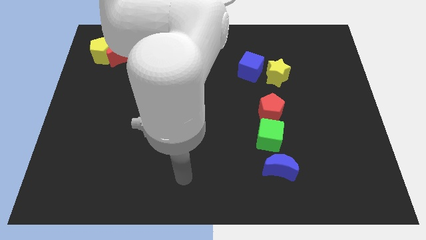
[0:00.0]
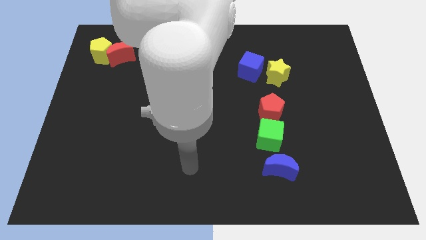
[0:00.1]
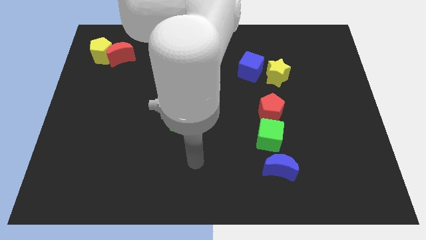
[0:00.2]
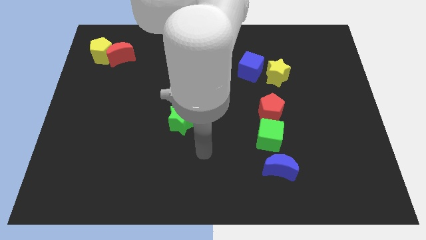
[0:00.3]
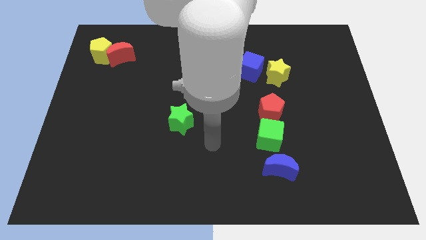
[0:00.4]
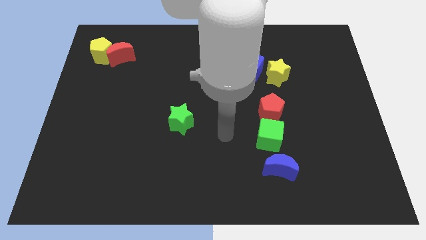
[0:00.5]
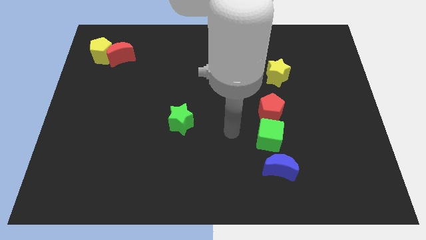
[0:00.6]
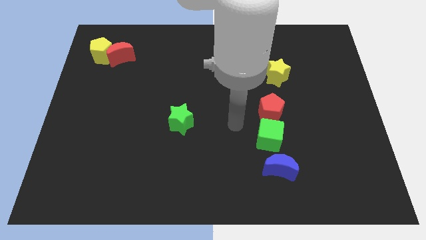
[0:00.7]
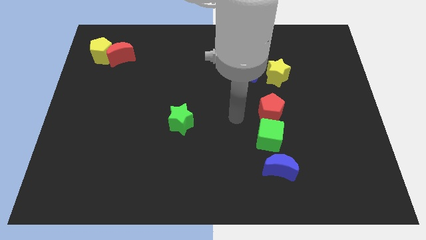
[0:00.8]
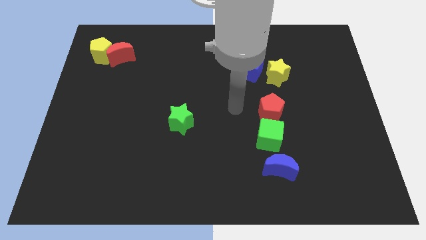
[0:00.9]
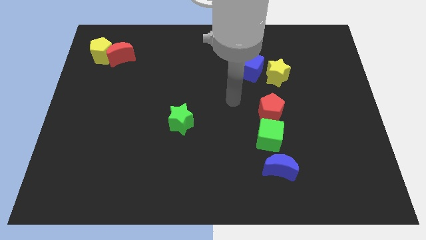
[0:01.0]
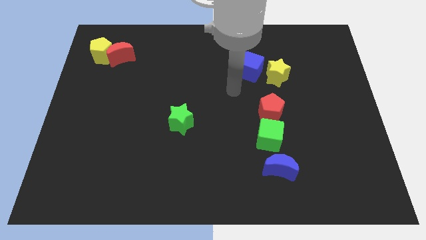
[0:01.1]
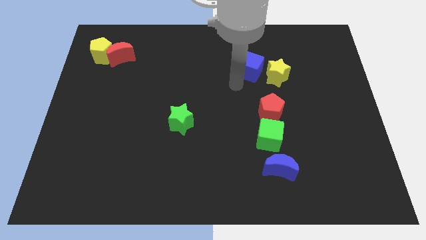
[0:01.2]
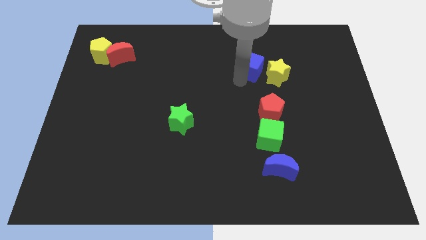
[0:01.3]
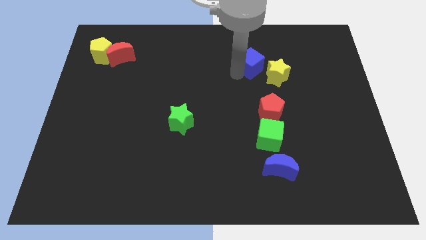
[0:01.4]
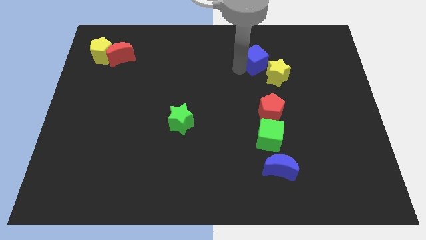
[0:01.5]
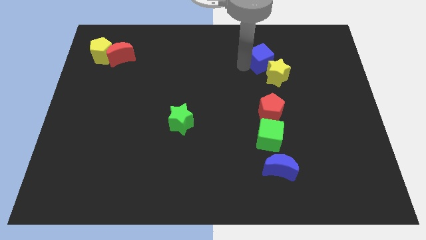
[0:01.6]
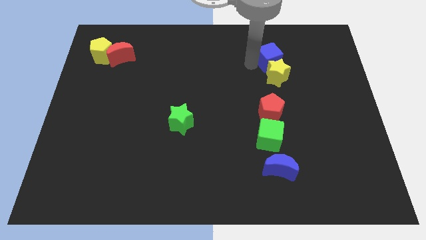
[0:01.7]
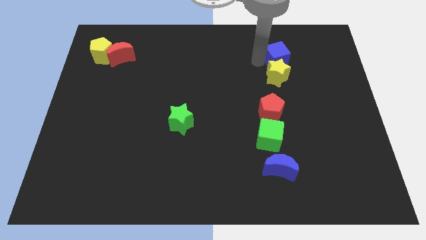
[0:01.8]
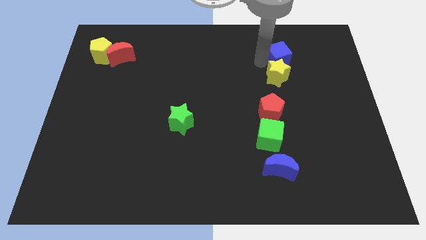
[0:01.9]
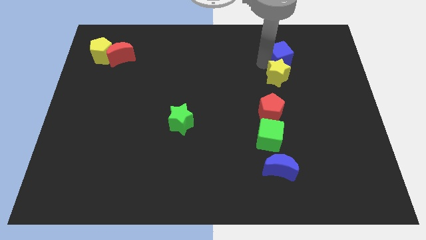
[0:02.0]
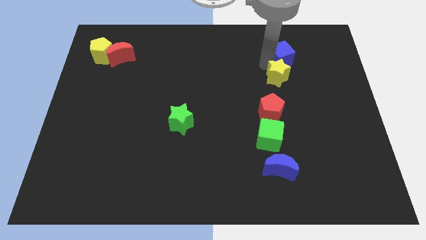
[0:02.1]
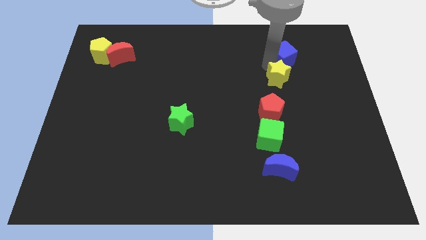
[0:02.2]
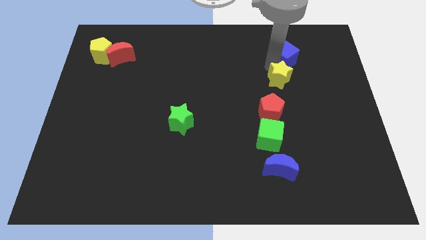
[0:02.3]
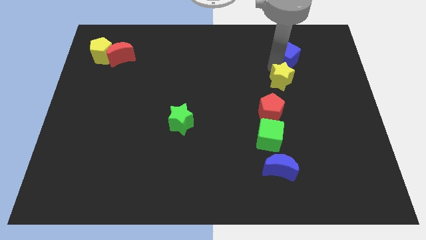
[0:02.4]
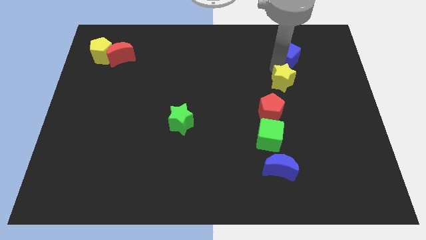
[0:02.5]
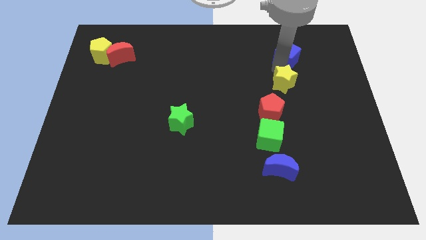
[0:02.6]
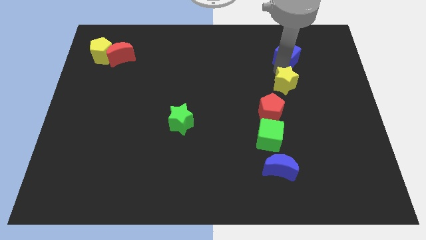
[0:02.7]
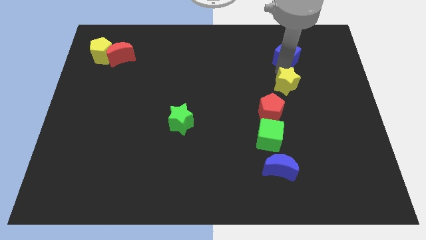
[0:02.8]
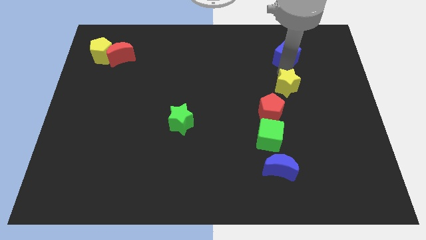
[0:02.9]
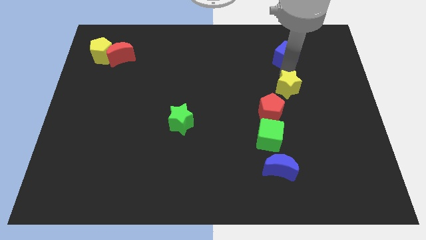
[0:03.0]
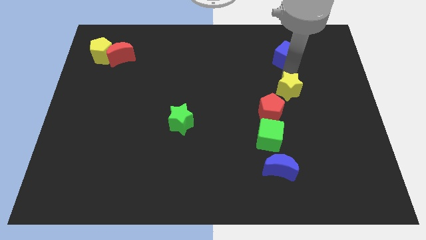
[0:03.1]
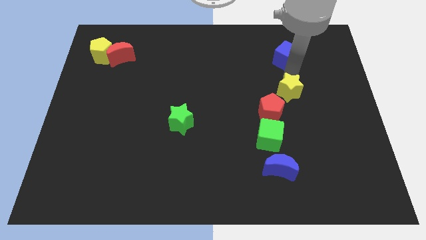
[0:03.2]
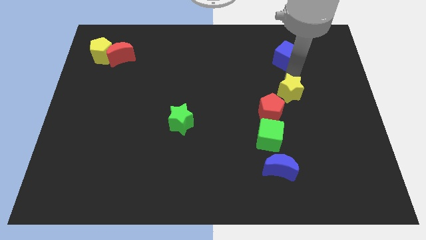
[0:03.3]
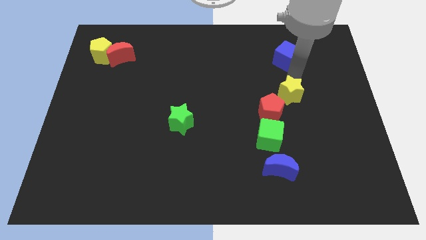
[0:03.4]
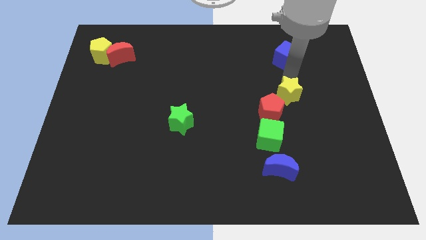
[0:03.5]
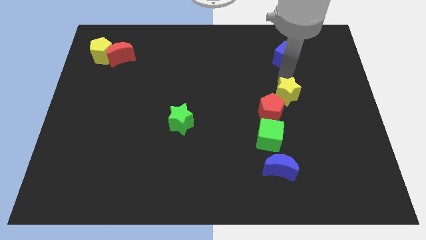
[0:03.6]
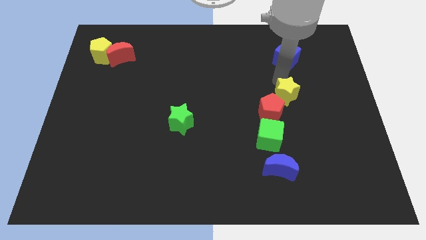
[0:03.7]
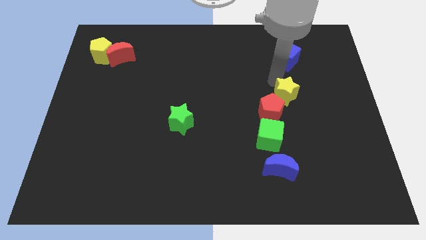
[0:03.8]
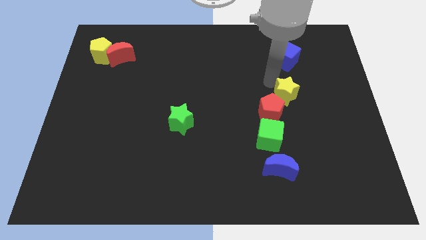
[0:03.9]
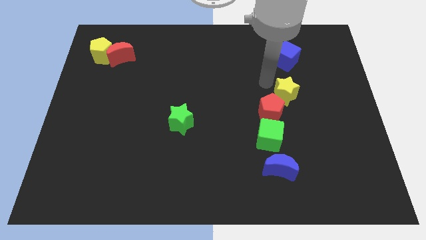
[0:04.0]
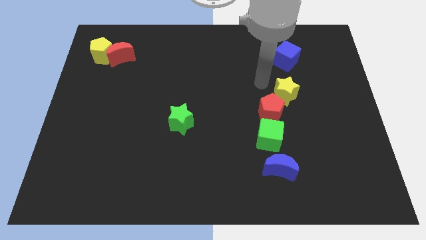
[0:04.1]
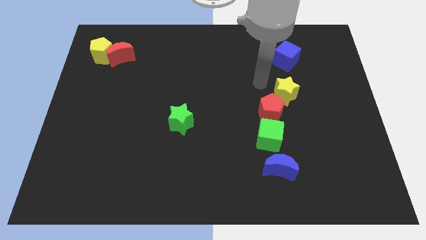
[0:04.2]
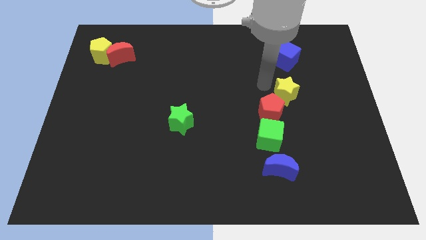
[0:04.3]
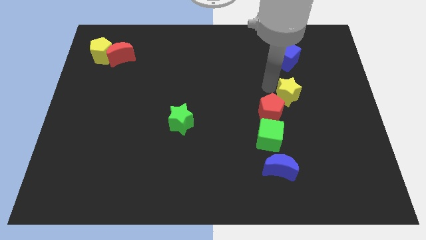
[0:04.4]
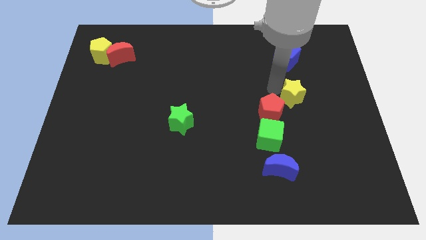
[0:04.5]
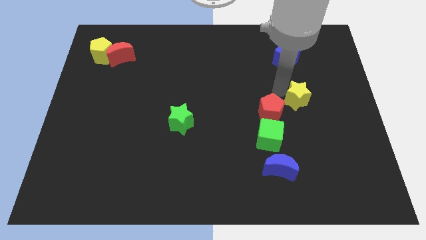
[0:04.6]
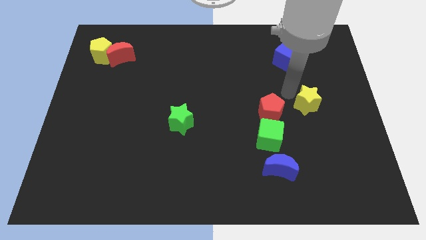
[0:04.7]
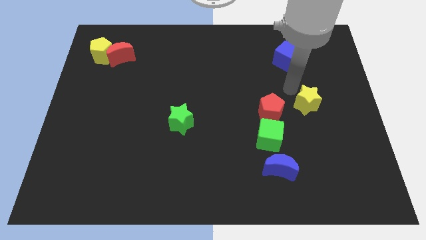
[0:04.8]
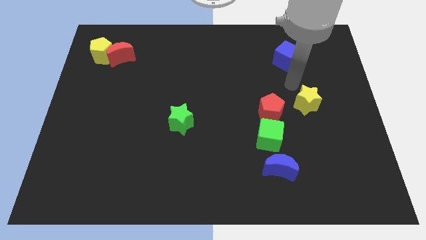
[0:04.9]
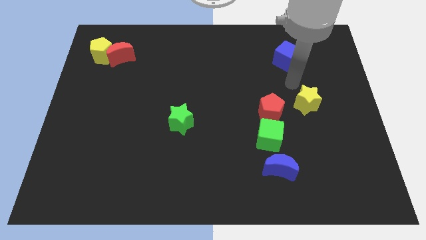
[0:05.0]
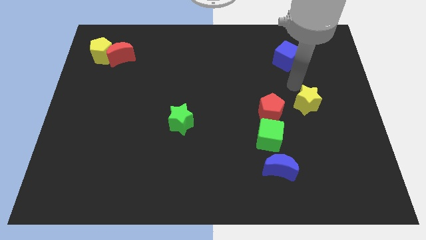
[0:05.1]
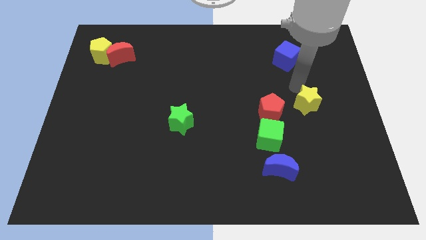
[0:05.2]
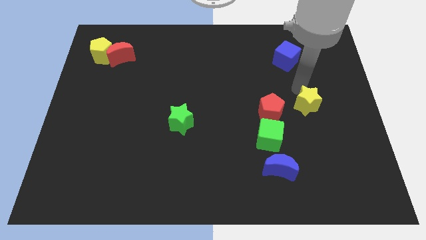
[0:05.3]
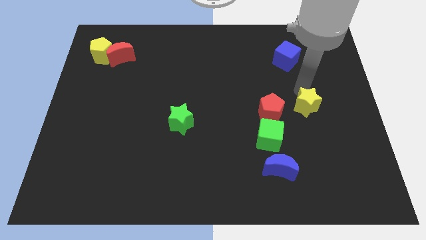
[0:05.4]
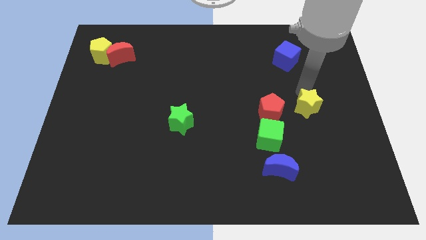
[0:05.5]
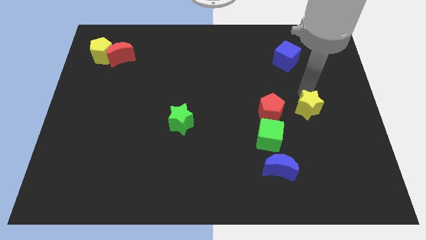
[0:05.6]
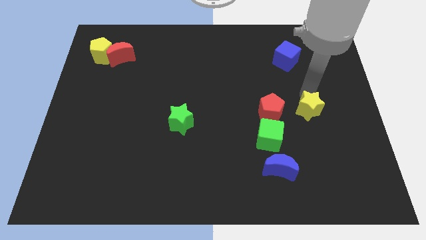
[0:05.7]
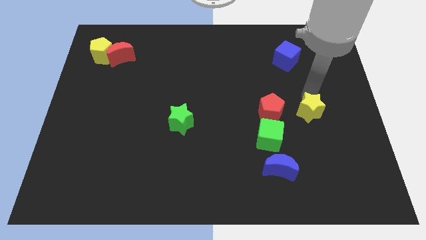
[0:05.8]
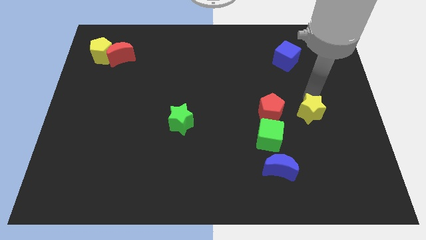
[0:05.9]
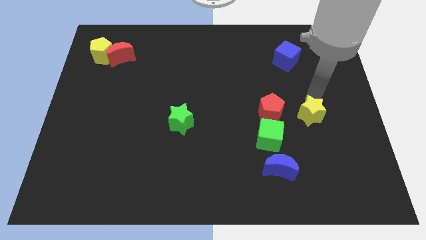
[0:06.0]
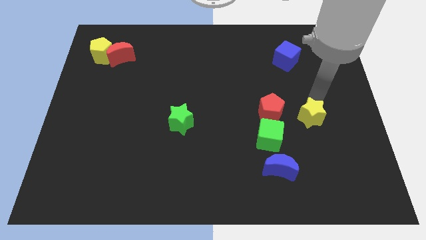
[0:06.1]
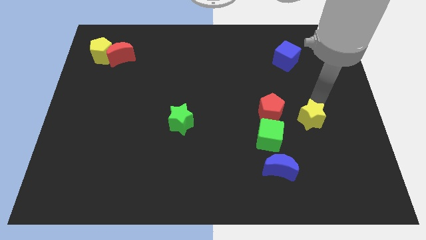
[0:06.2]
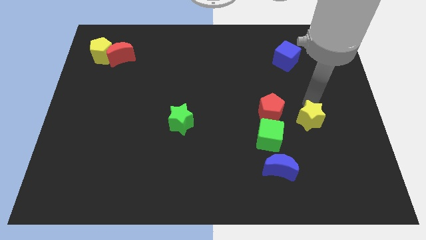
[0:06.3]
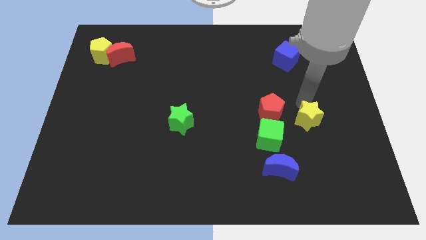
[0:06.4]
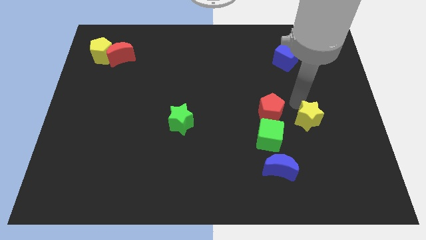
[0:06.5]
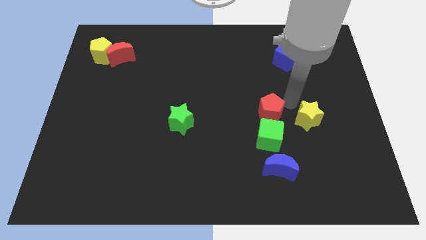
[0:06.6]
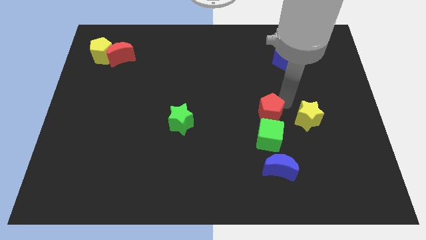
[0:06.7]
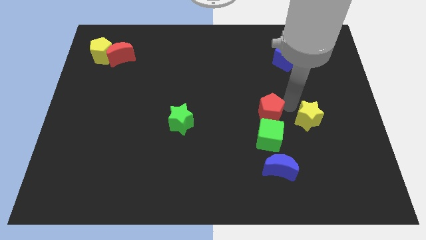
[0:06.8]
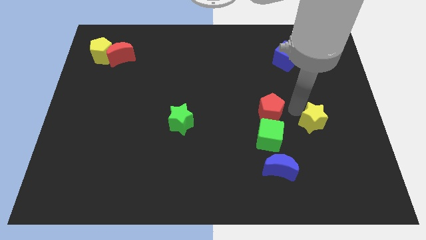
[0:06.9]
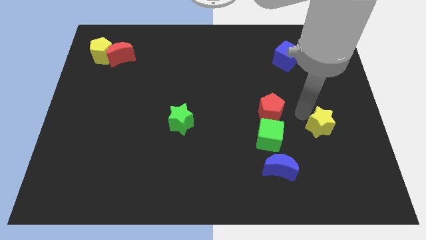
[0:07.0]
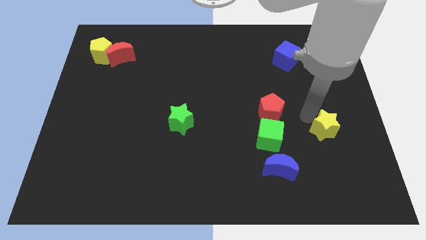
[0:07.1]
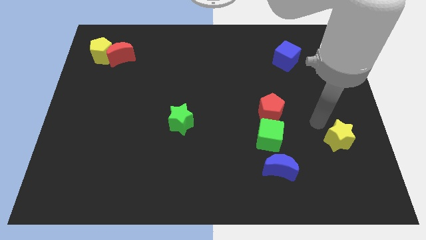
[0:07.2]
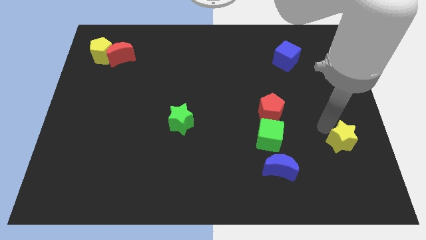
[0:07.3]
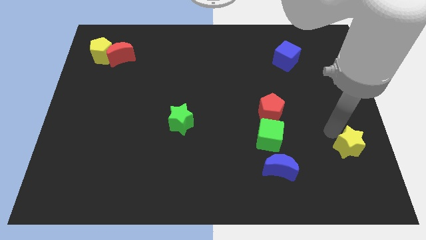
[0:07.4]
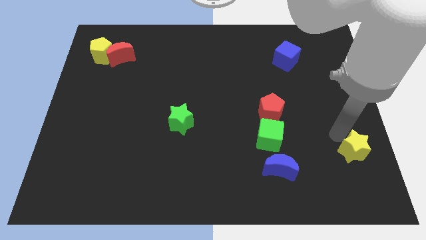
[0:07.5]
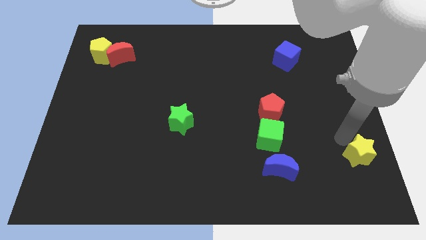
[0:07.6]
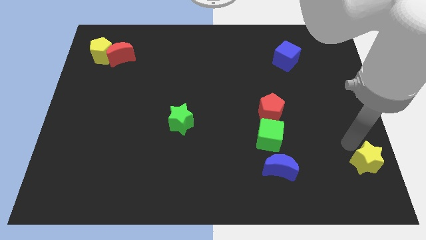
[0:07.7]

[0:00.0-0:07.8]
put the yellow star to the bottom right
